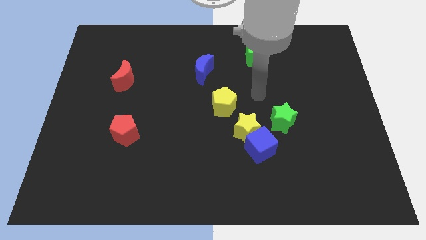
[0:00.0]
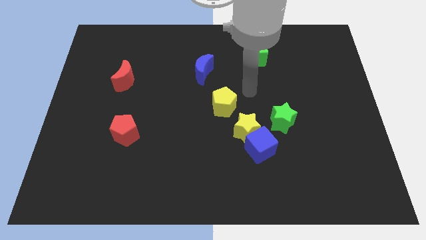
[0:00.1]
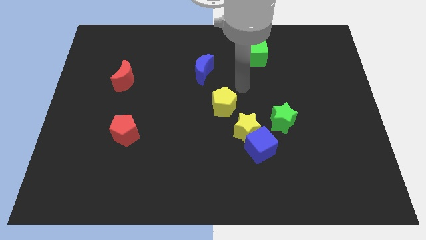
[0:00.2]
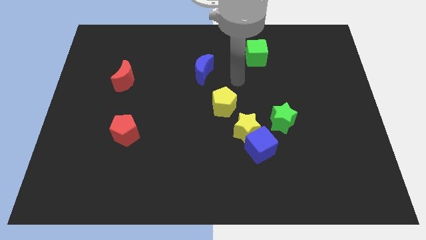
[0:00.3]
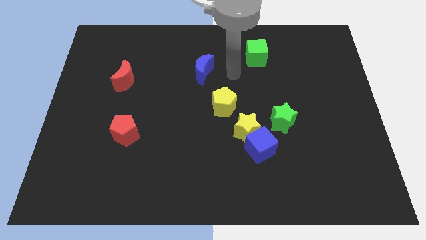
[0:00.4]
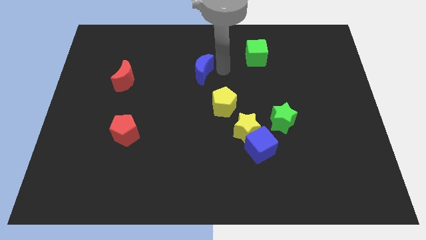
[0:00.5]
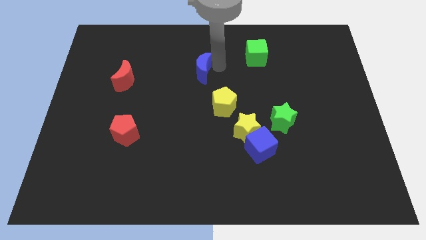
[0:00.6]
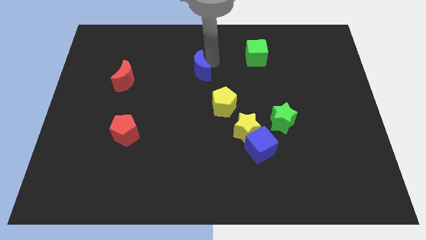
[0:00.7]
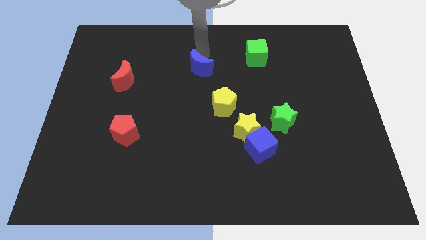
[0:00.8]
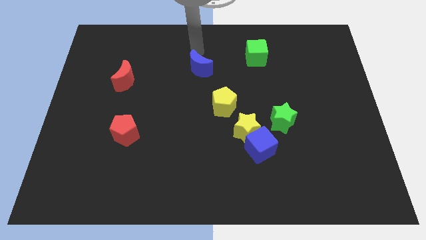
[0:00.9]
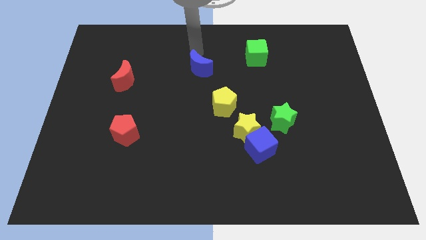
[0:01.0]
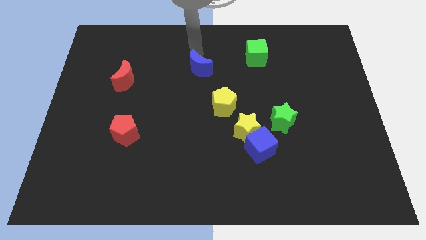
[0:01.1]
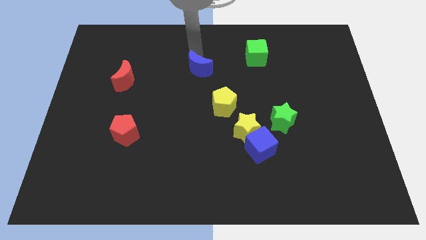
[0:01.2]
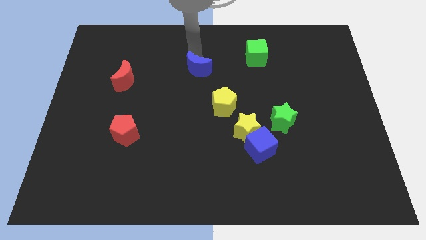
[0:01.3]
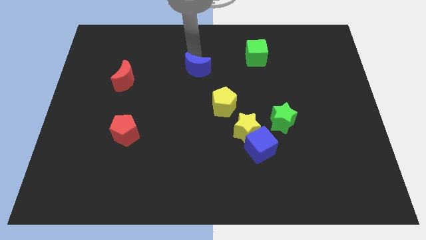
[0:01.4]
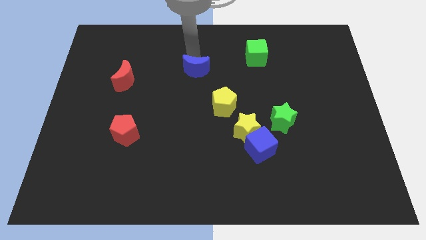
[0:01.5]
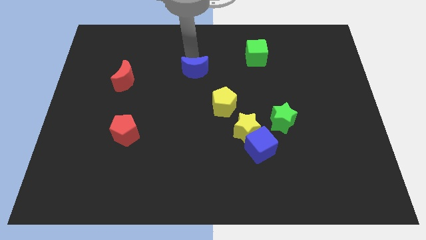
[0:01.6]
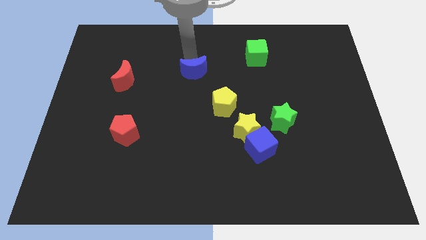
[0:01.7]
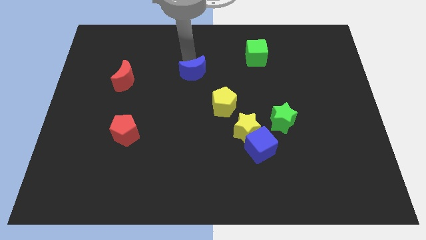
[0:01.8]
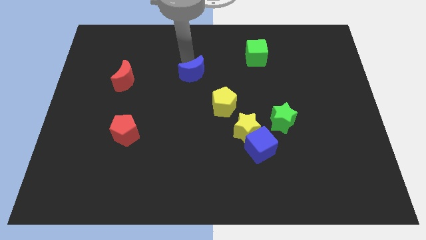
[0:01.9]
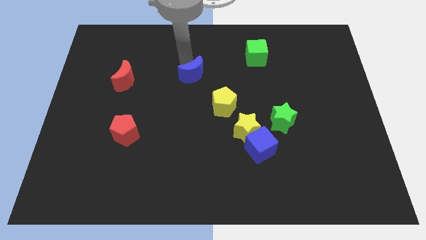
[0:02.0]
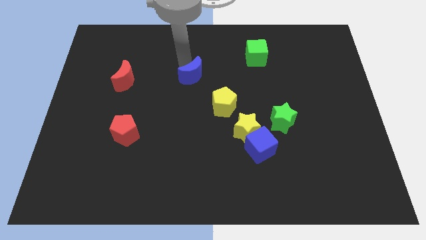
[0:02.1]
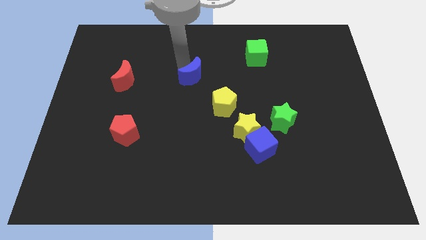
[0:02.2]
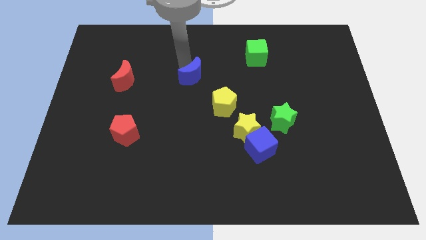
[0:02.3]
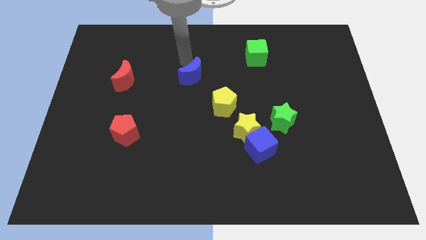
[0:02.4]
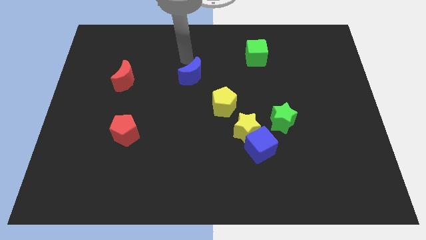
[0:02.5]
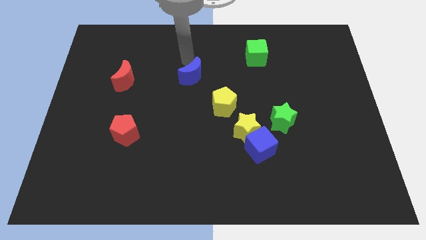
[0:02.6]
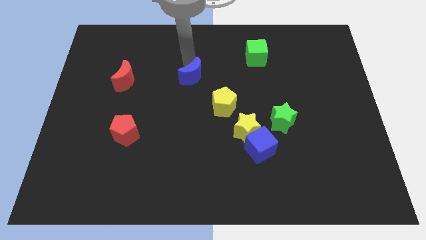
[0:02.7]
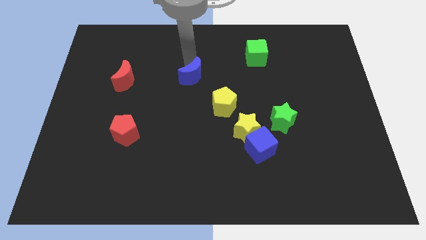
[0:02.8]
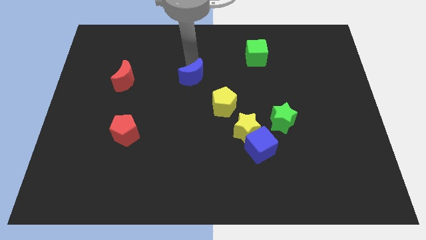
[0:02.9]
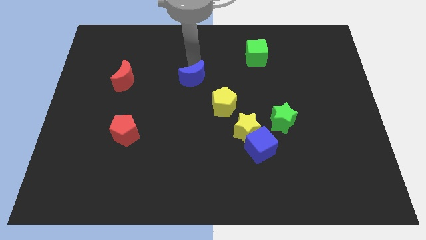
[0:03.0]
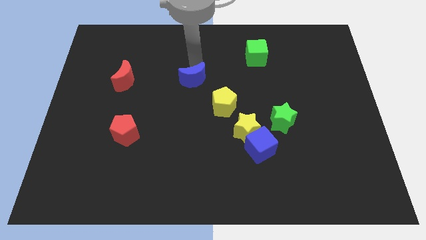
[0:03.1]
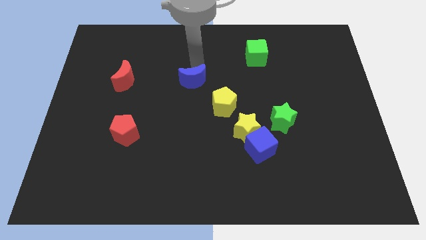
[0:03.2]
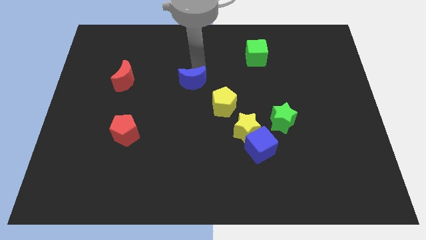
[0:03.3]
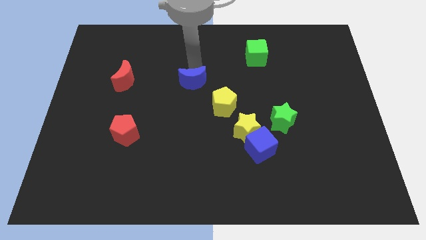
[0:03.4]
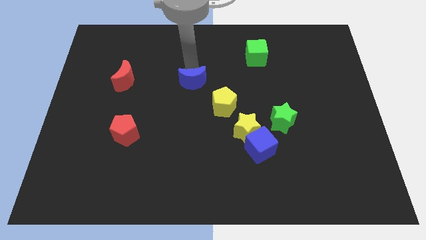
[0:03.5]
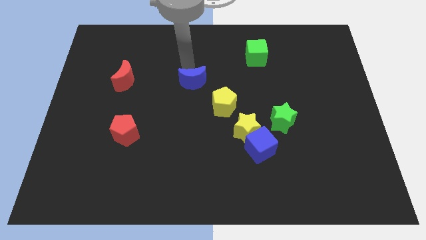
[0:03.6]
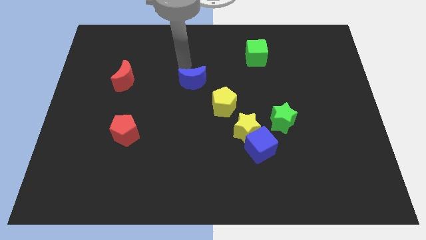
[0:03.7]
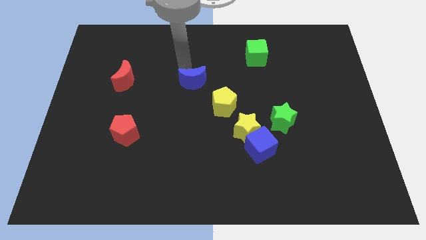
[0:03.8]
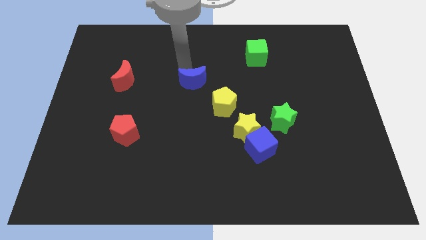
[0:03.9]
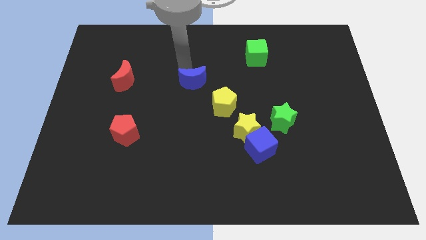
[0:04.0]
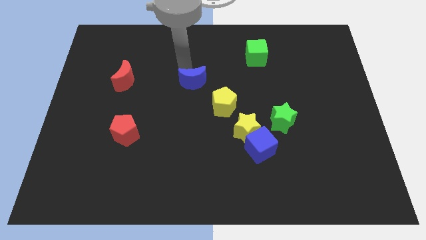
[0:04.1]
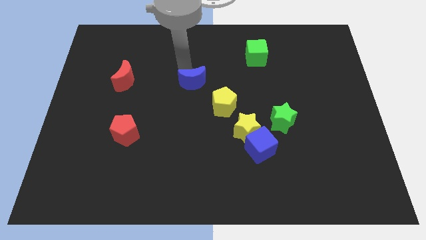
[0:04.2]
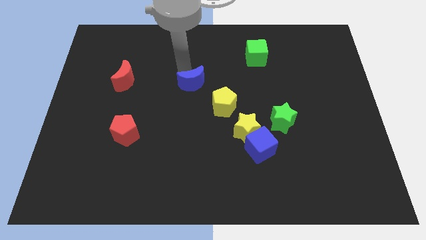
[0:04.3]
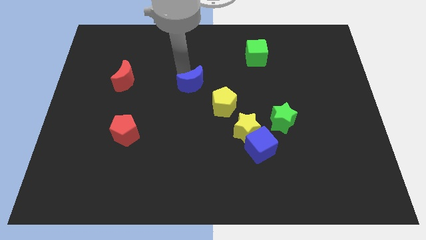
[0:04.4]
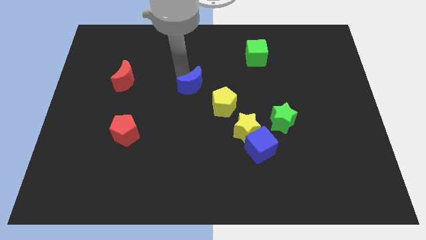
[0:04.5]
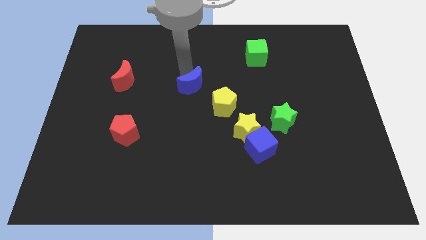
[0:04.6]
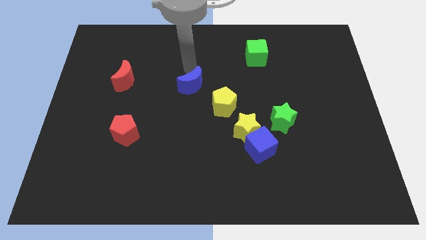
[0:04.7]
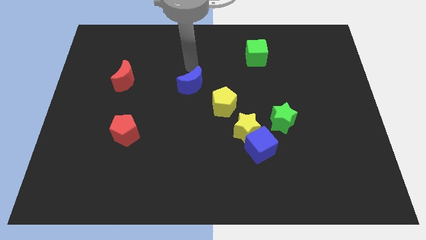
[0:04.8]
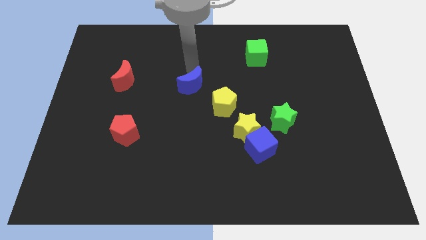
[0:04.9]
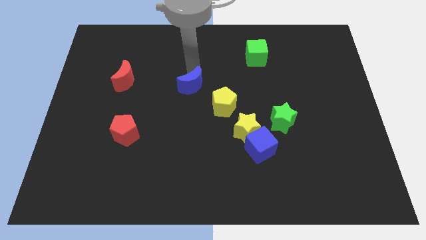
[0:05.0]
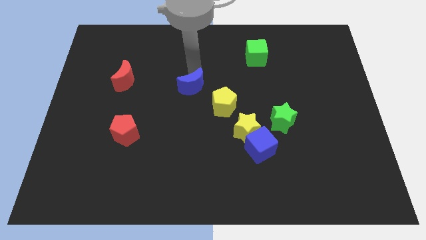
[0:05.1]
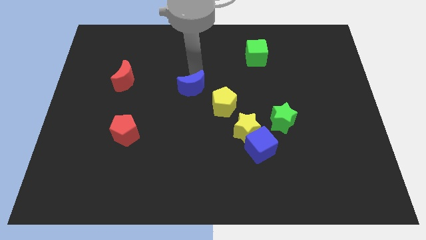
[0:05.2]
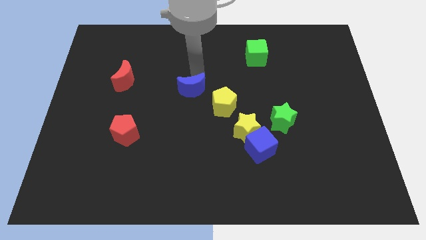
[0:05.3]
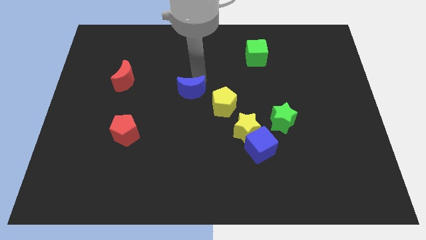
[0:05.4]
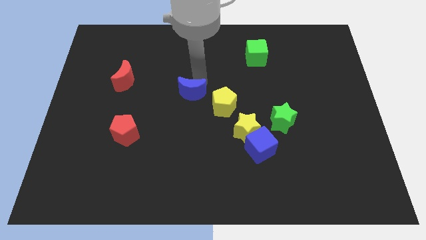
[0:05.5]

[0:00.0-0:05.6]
slide the blue moon somewhat down

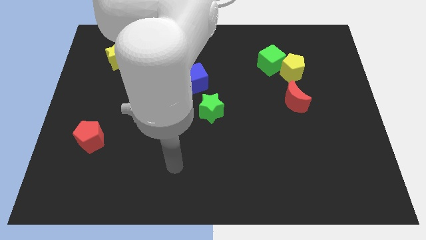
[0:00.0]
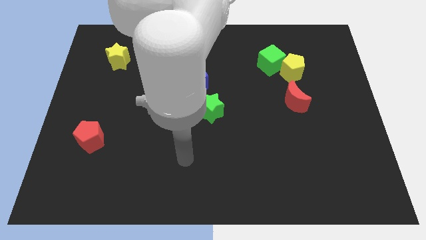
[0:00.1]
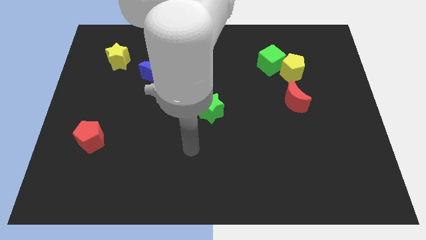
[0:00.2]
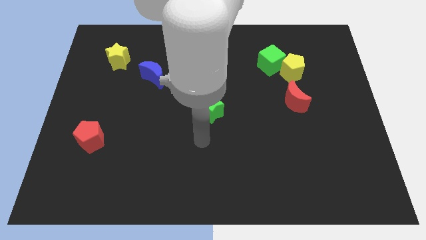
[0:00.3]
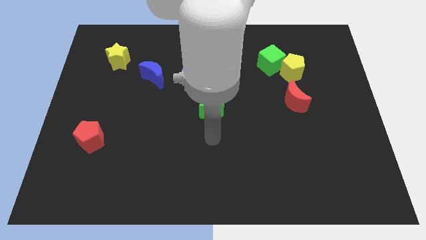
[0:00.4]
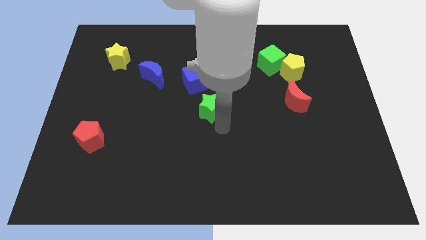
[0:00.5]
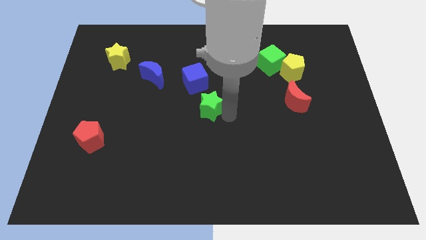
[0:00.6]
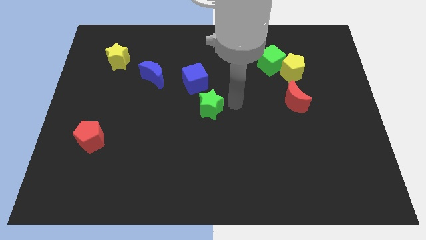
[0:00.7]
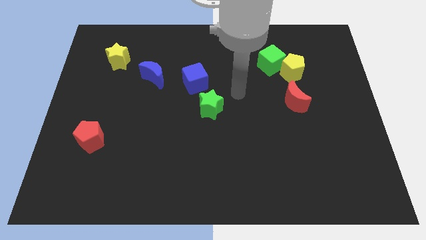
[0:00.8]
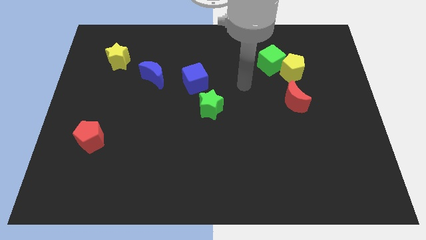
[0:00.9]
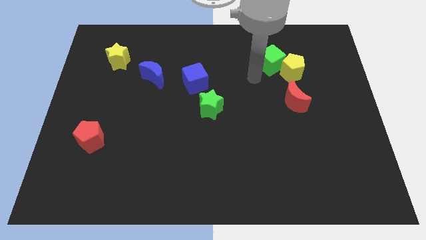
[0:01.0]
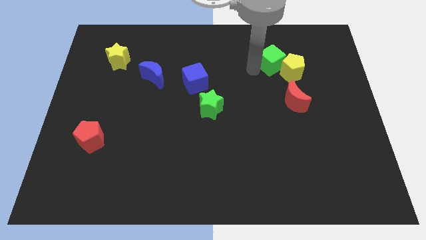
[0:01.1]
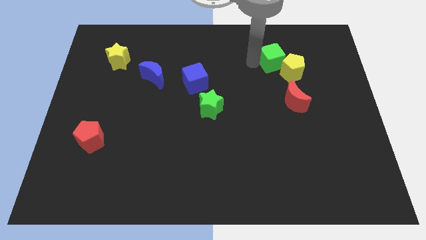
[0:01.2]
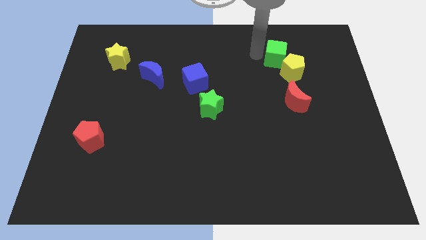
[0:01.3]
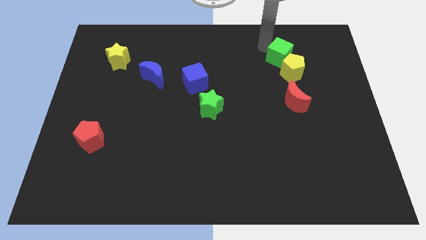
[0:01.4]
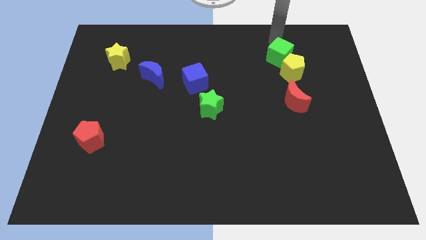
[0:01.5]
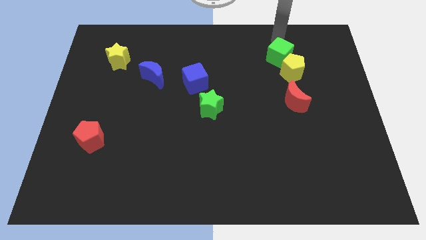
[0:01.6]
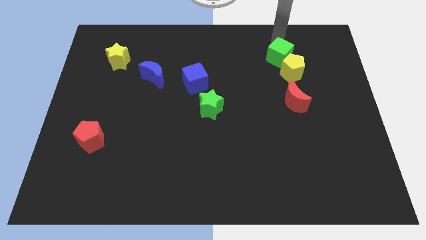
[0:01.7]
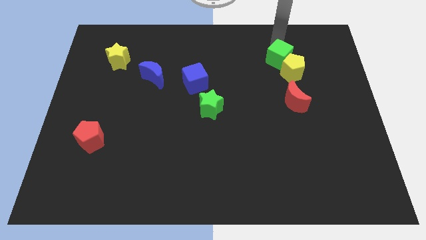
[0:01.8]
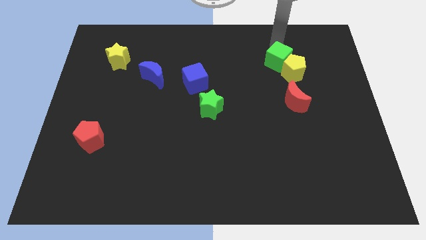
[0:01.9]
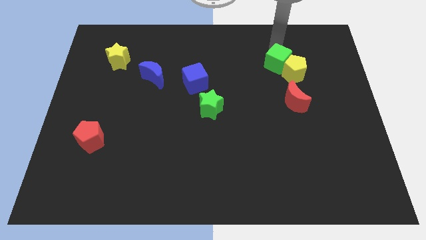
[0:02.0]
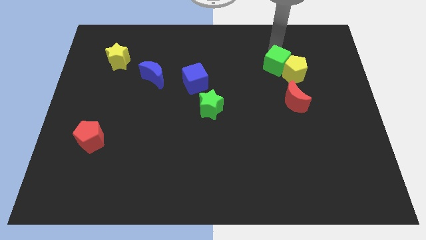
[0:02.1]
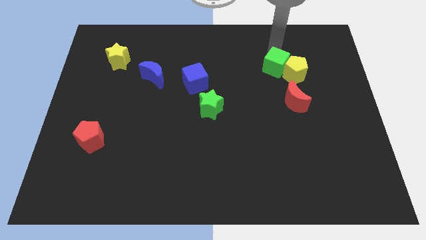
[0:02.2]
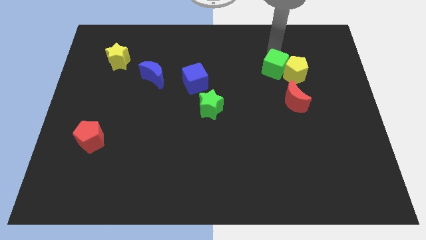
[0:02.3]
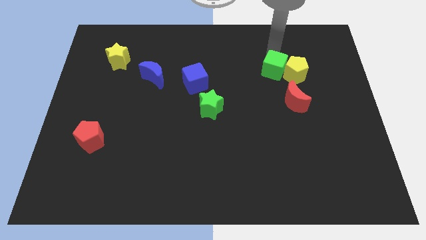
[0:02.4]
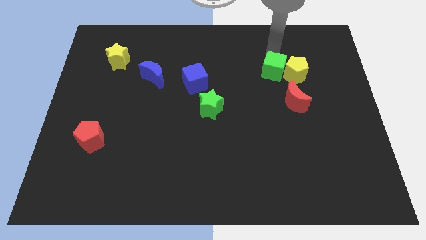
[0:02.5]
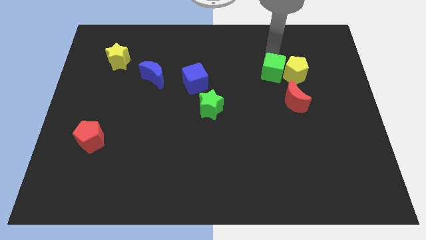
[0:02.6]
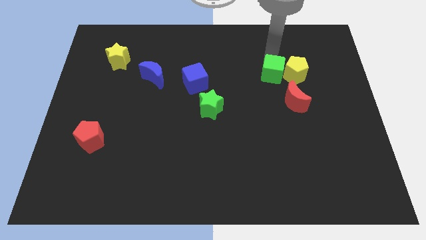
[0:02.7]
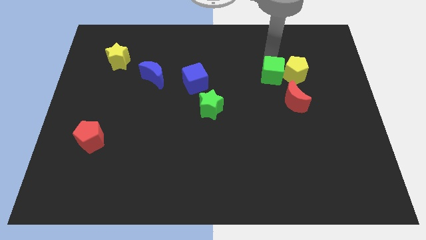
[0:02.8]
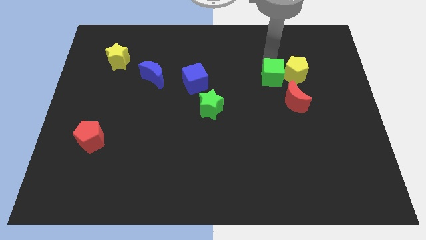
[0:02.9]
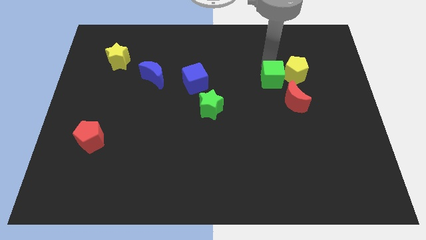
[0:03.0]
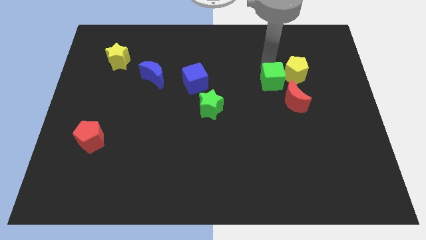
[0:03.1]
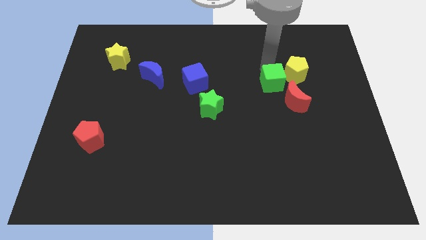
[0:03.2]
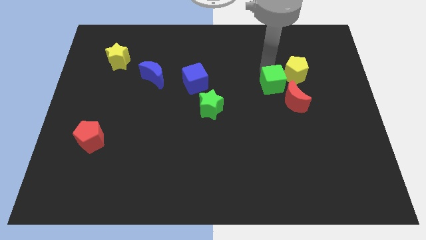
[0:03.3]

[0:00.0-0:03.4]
slightly push the green cube downwards
